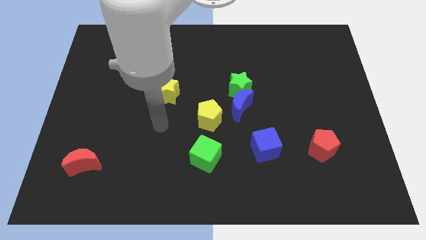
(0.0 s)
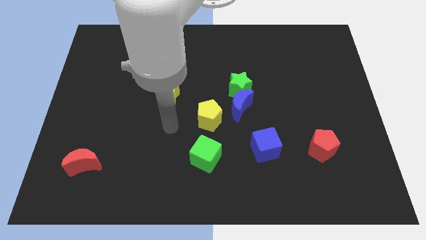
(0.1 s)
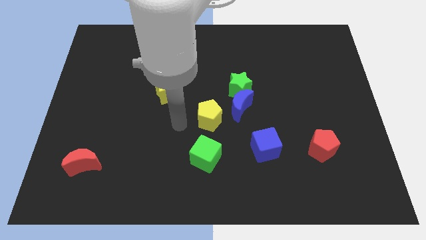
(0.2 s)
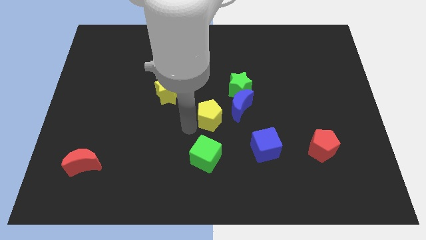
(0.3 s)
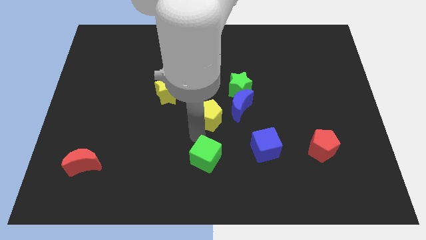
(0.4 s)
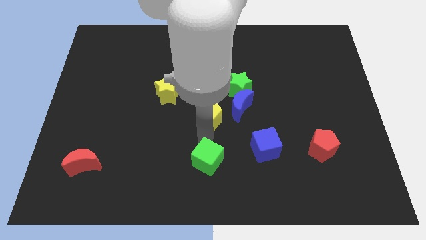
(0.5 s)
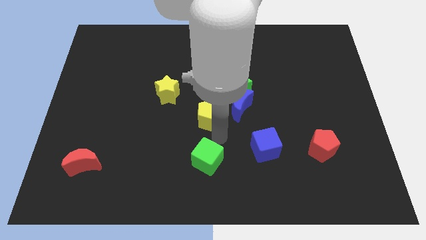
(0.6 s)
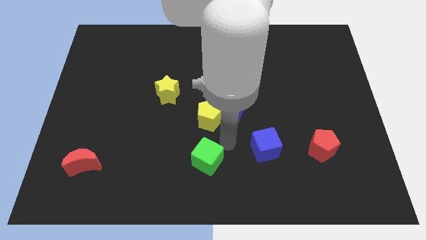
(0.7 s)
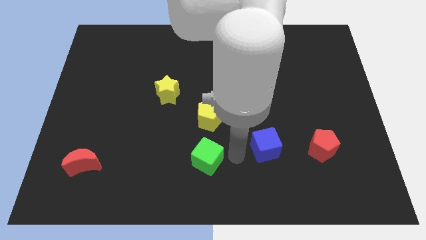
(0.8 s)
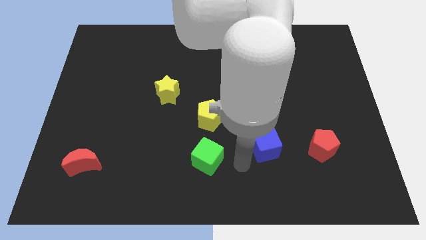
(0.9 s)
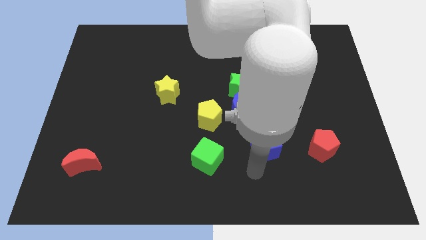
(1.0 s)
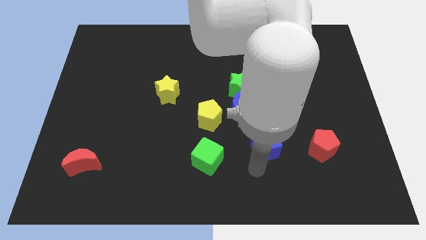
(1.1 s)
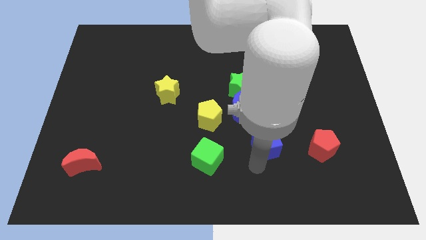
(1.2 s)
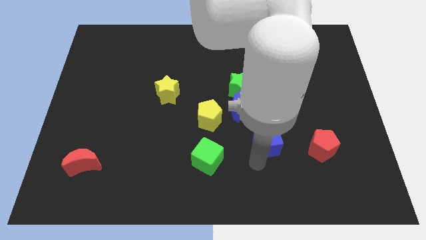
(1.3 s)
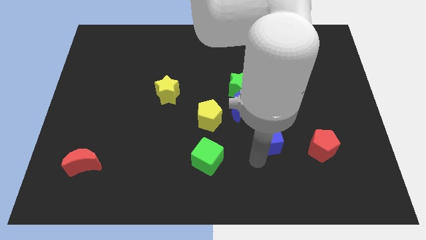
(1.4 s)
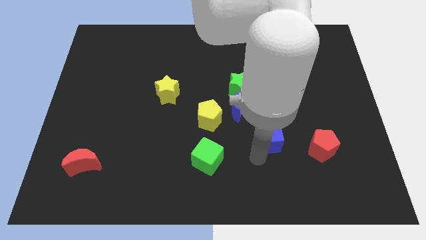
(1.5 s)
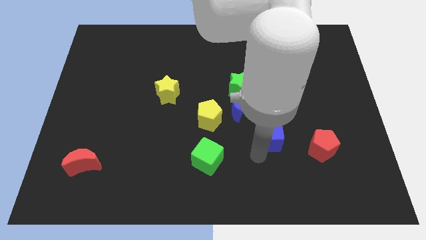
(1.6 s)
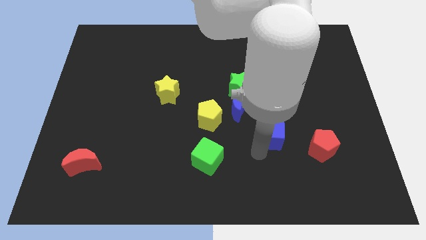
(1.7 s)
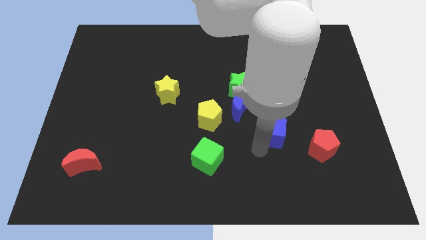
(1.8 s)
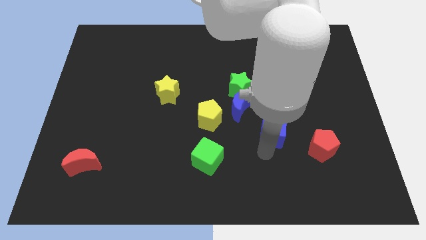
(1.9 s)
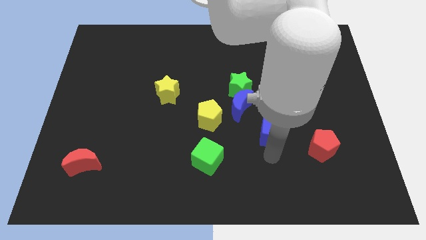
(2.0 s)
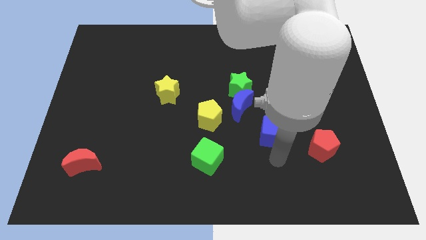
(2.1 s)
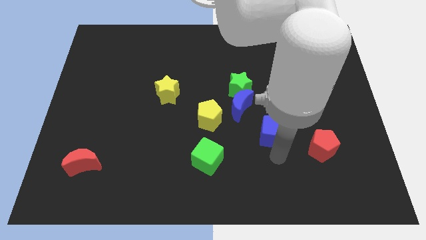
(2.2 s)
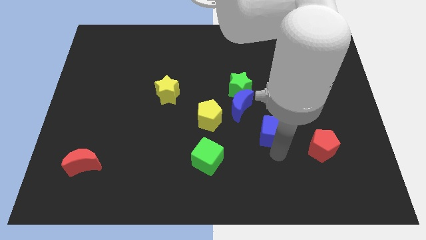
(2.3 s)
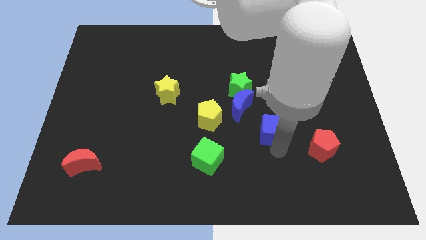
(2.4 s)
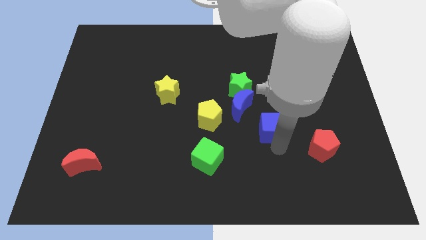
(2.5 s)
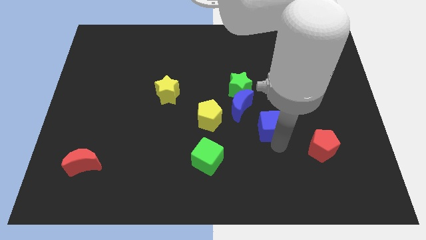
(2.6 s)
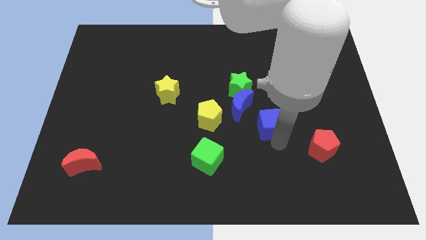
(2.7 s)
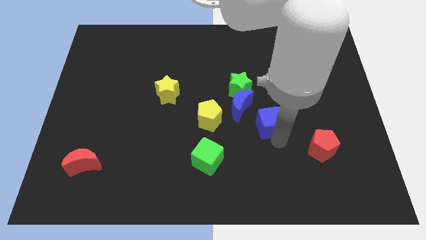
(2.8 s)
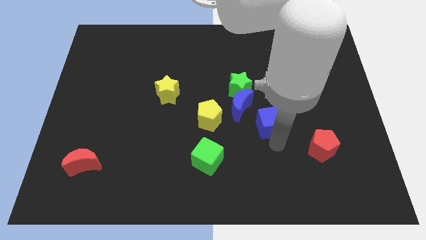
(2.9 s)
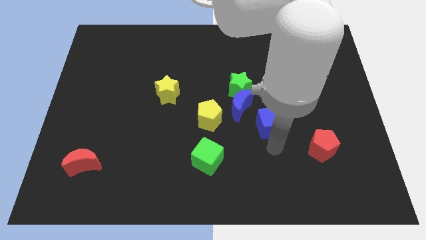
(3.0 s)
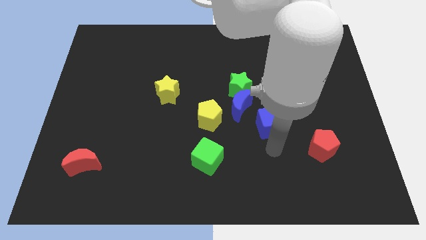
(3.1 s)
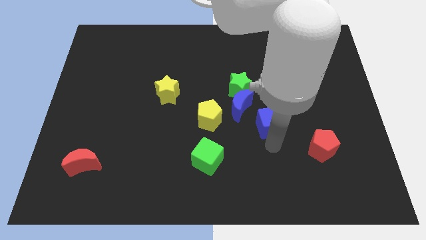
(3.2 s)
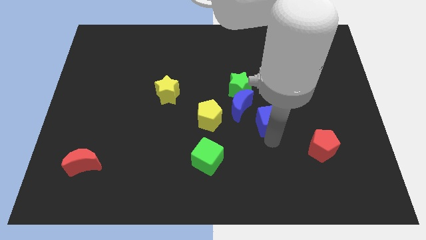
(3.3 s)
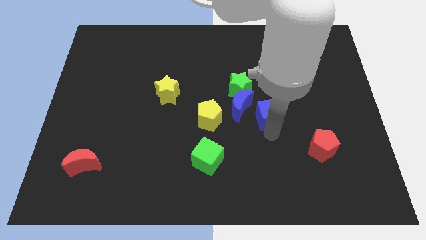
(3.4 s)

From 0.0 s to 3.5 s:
slightly move the blue cube upwards

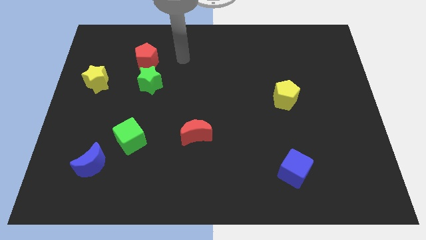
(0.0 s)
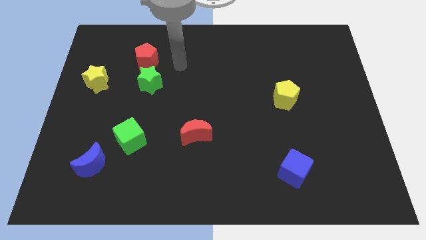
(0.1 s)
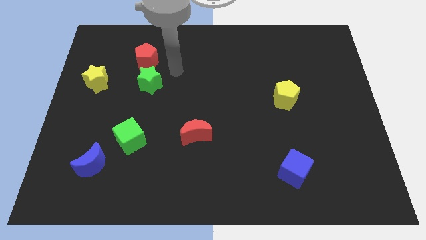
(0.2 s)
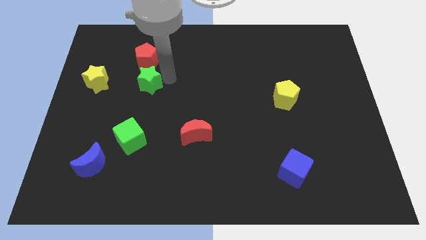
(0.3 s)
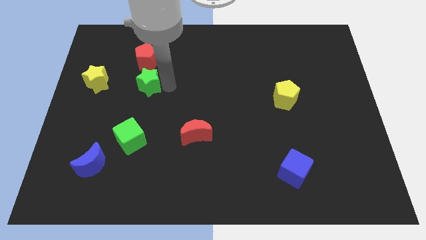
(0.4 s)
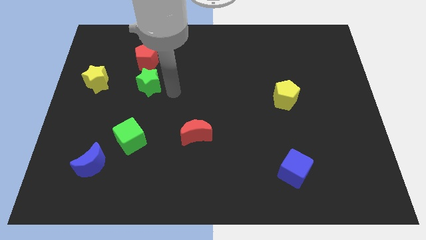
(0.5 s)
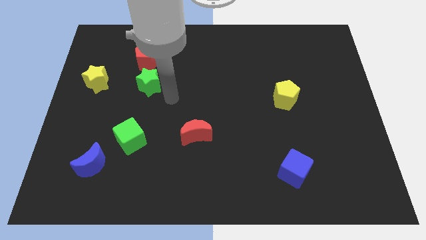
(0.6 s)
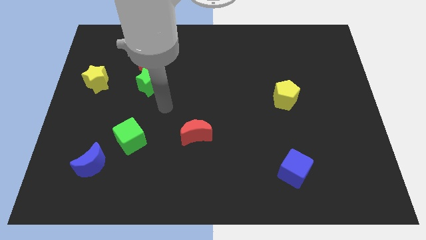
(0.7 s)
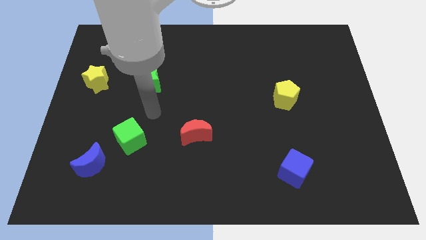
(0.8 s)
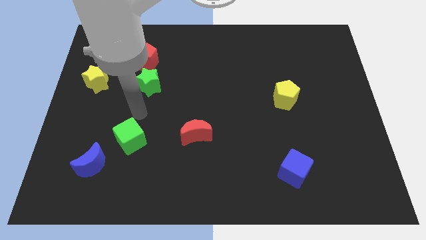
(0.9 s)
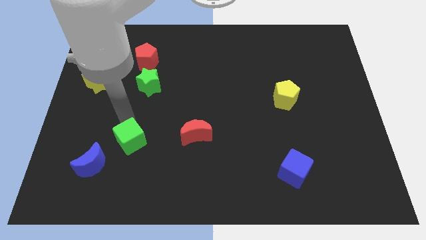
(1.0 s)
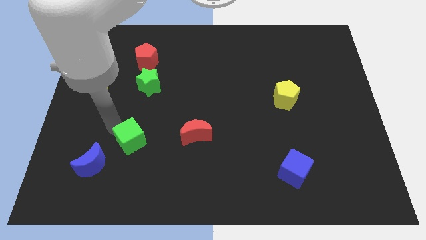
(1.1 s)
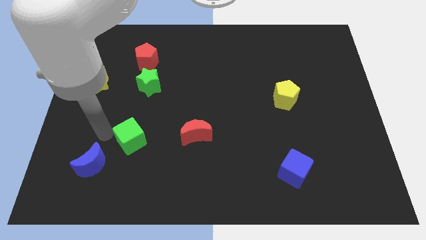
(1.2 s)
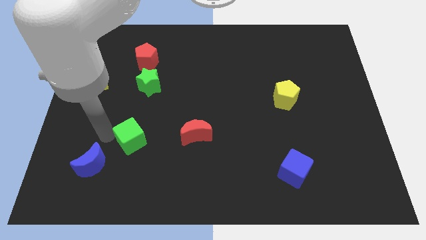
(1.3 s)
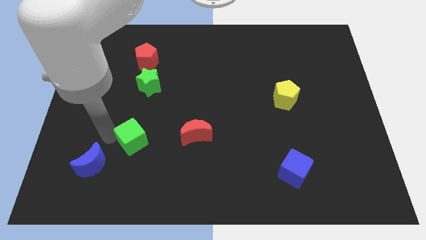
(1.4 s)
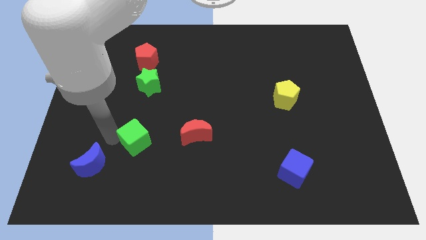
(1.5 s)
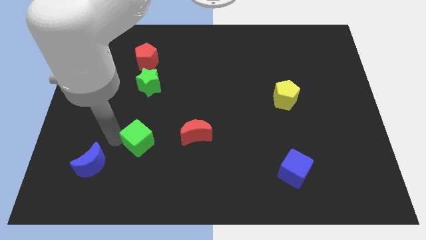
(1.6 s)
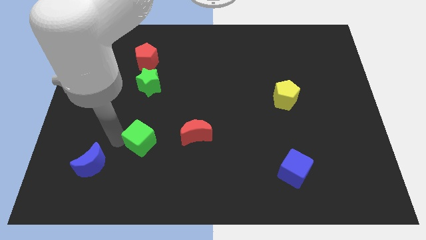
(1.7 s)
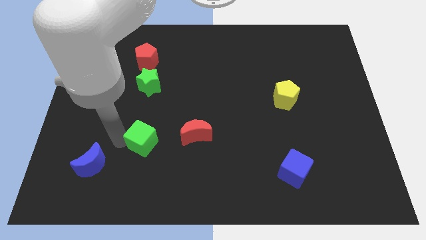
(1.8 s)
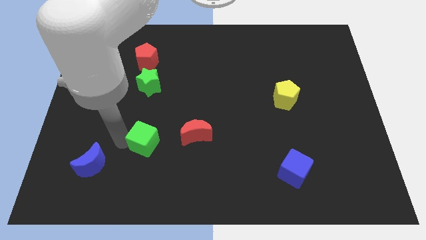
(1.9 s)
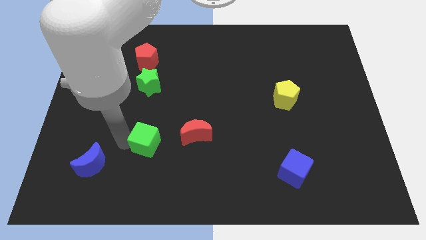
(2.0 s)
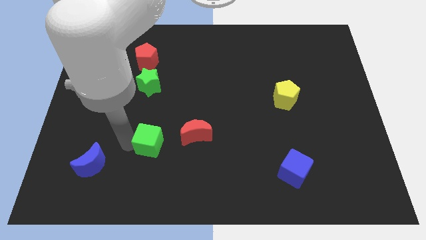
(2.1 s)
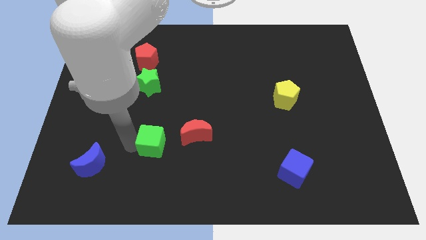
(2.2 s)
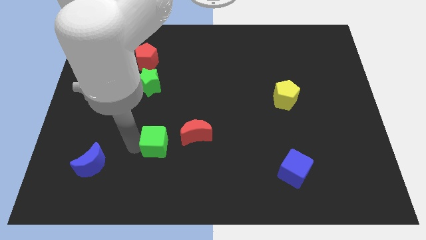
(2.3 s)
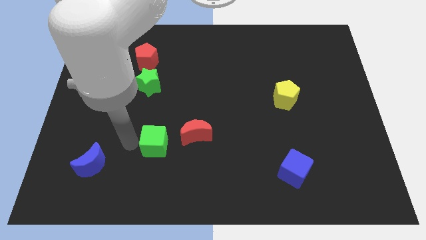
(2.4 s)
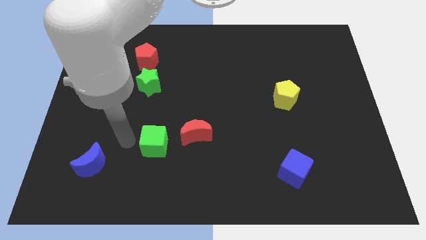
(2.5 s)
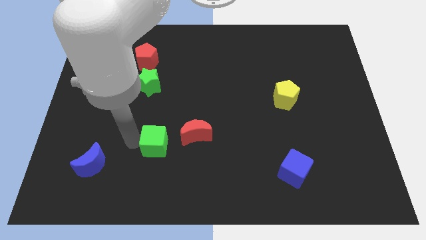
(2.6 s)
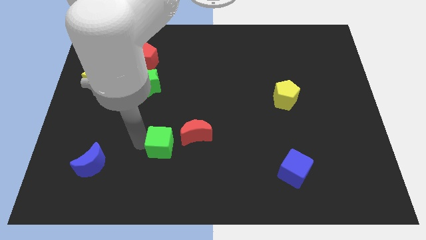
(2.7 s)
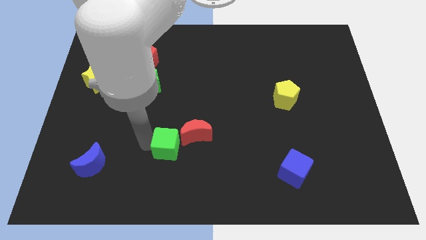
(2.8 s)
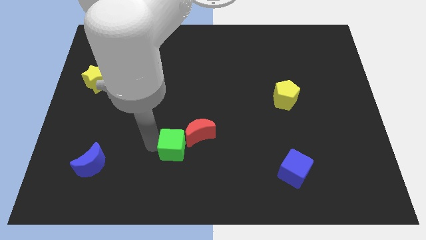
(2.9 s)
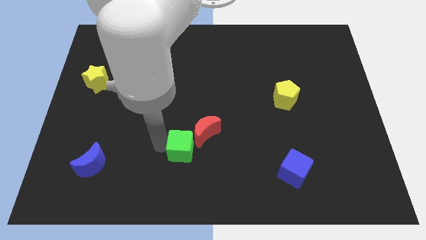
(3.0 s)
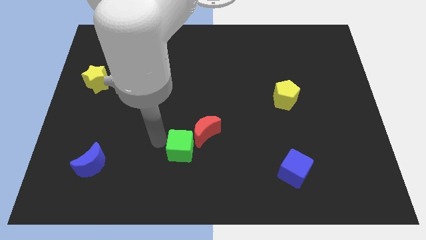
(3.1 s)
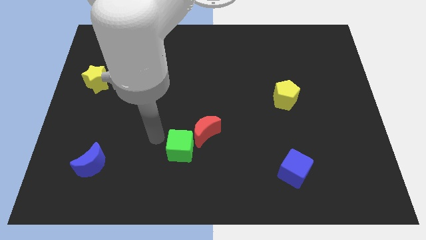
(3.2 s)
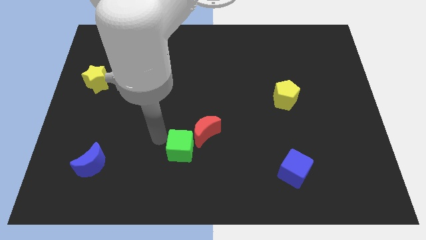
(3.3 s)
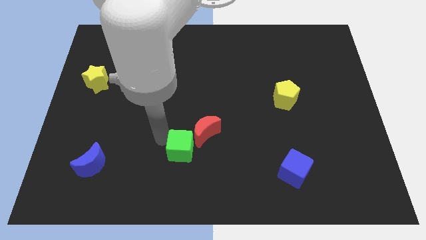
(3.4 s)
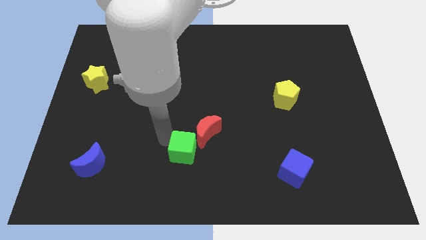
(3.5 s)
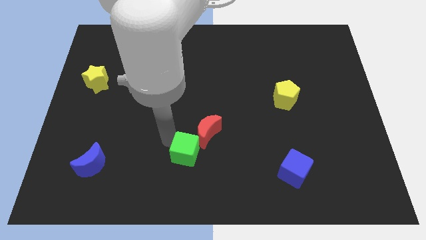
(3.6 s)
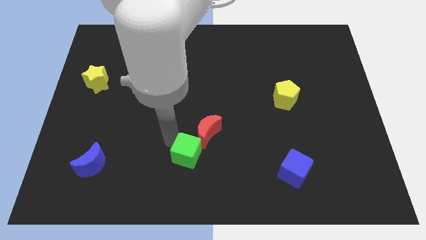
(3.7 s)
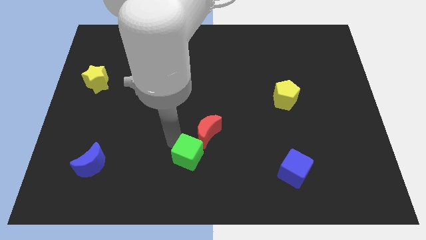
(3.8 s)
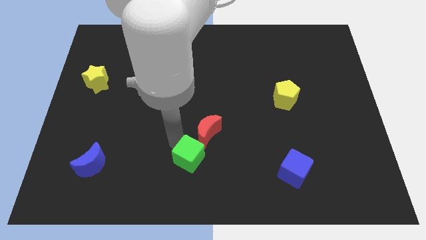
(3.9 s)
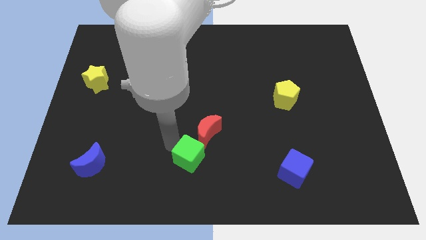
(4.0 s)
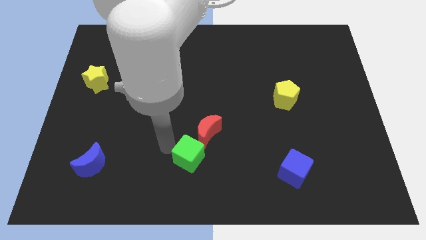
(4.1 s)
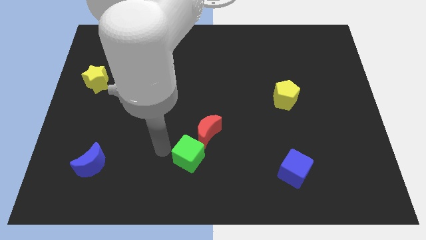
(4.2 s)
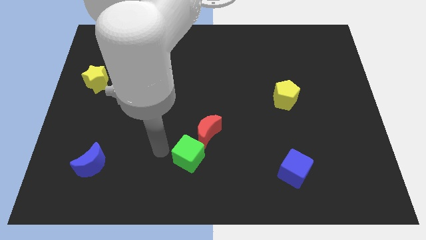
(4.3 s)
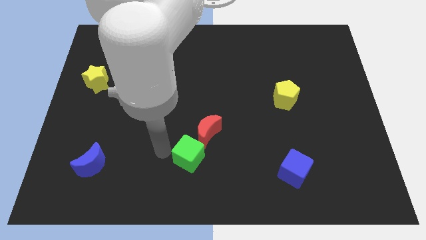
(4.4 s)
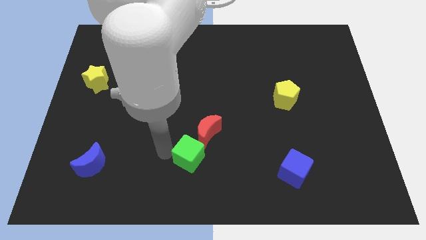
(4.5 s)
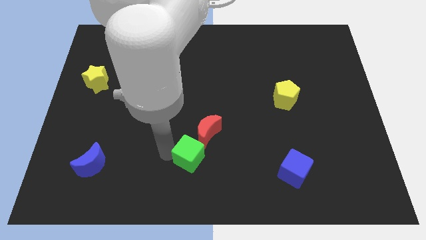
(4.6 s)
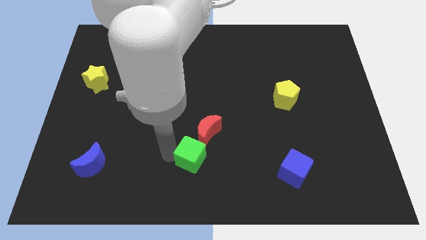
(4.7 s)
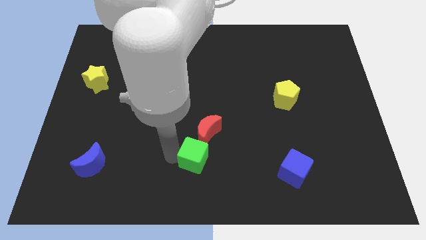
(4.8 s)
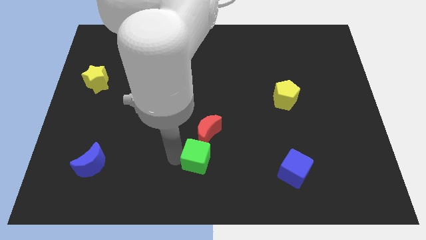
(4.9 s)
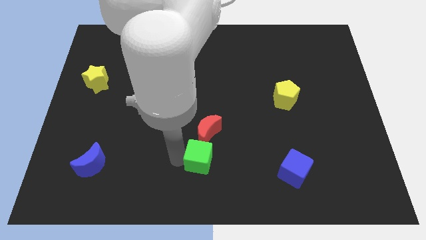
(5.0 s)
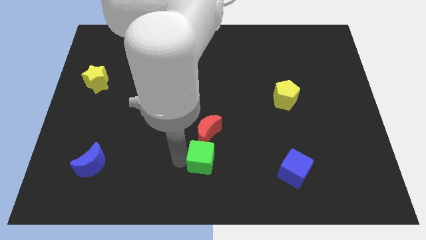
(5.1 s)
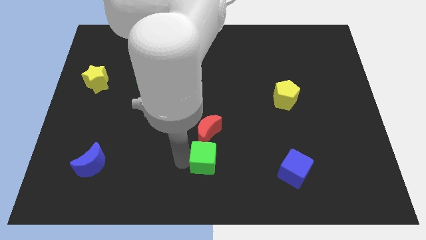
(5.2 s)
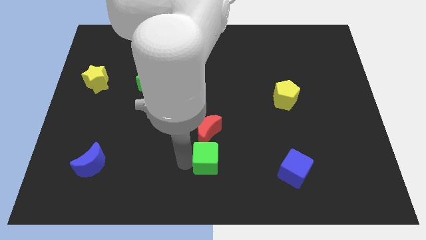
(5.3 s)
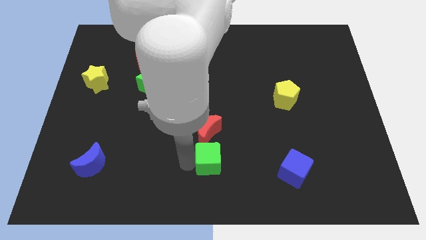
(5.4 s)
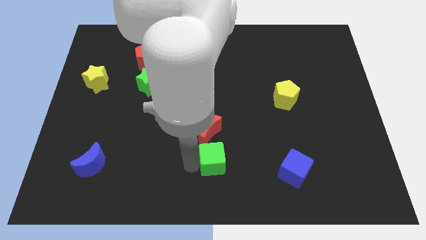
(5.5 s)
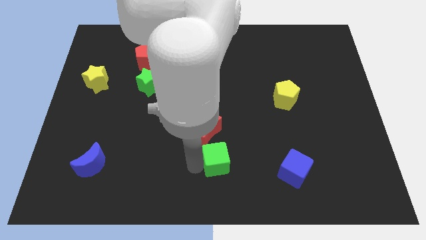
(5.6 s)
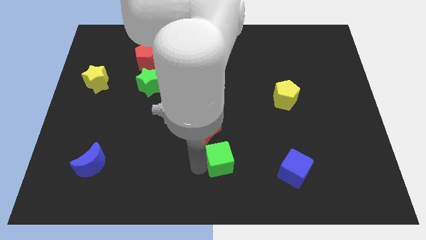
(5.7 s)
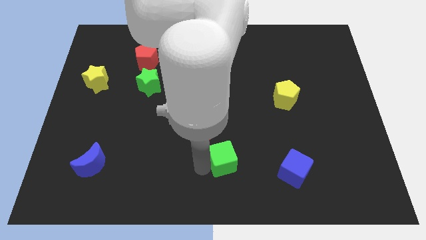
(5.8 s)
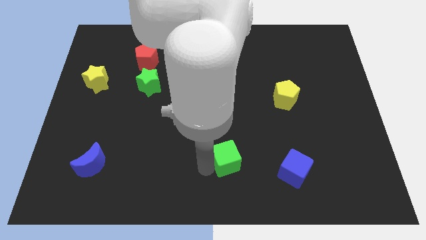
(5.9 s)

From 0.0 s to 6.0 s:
slide the green cube right
